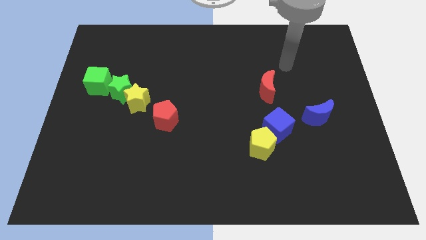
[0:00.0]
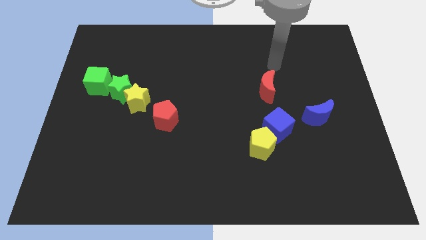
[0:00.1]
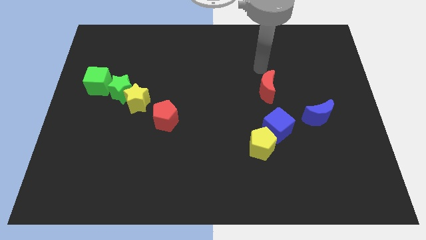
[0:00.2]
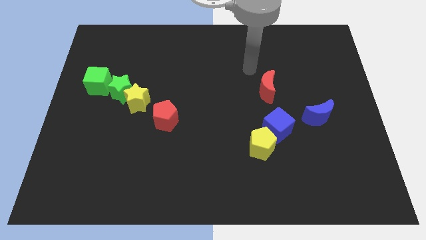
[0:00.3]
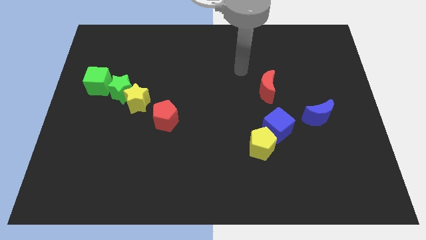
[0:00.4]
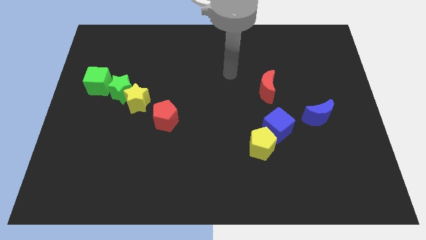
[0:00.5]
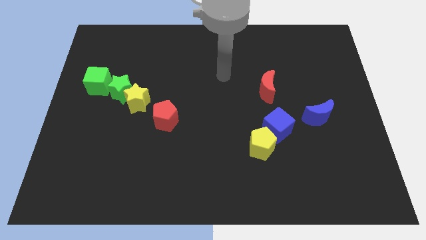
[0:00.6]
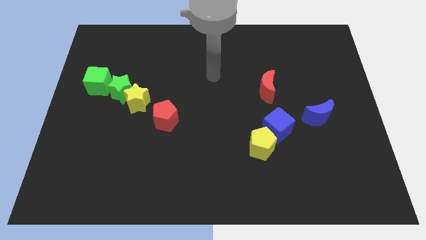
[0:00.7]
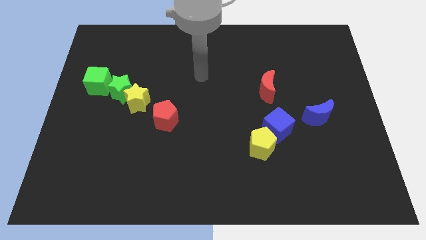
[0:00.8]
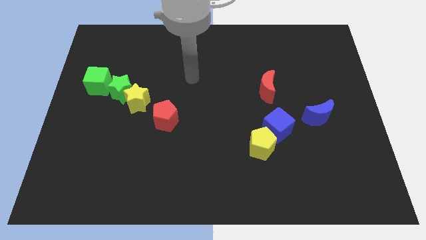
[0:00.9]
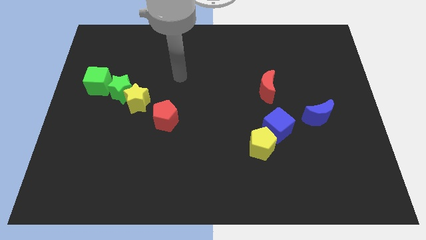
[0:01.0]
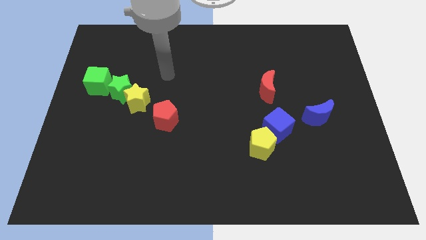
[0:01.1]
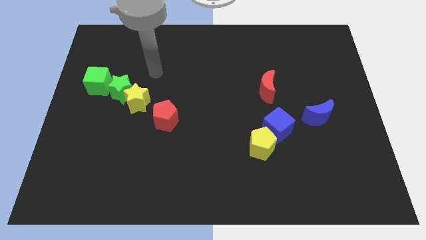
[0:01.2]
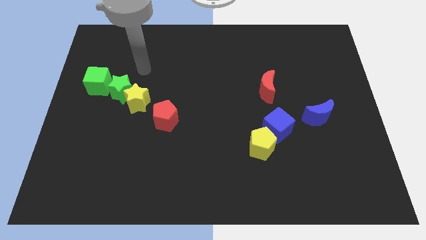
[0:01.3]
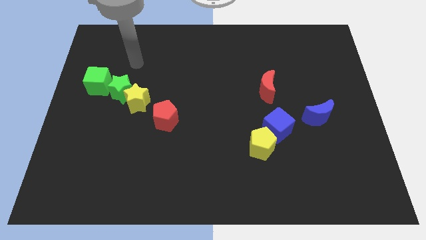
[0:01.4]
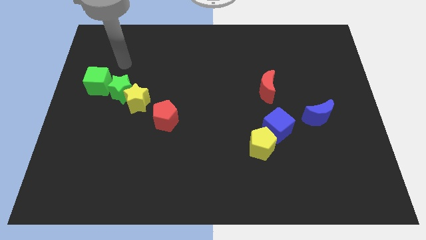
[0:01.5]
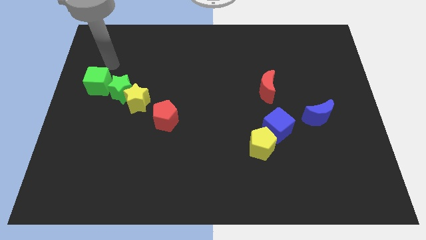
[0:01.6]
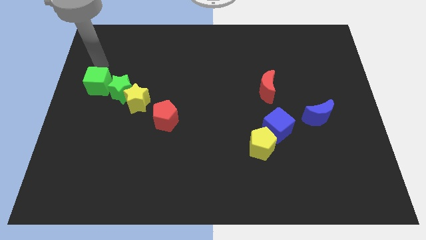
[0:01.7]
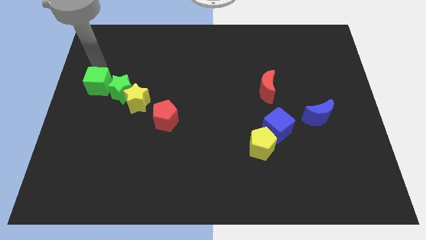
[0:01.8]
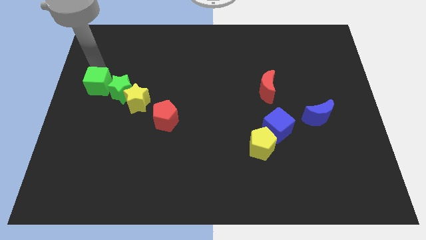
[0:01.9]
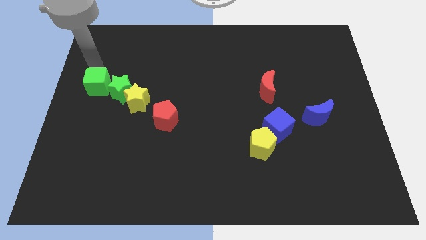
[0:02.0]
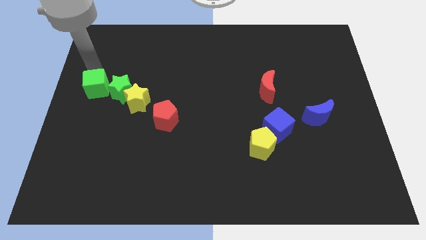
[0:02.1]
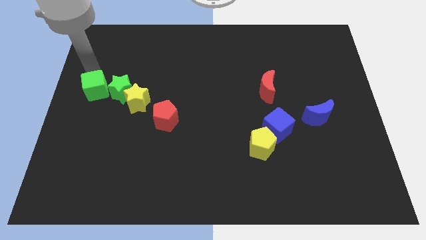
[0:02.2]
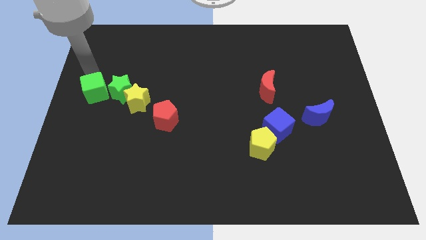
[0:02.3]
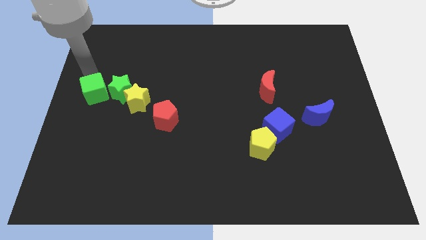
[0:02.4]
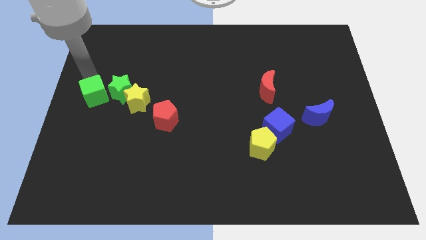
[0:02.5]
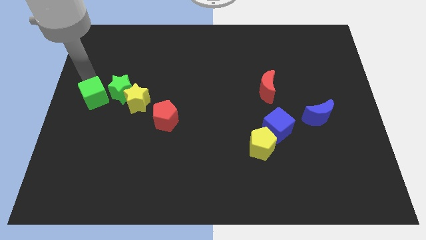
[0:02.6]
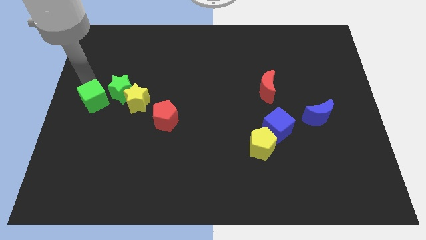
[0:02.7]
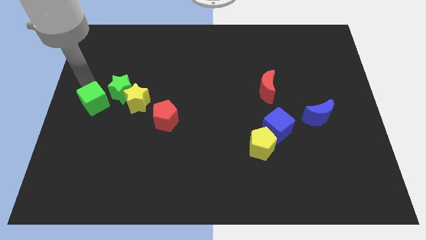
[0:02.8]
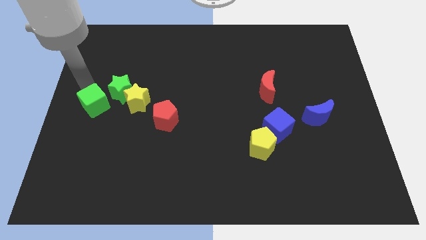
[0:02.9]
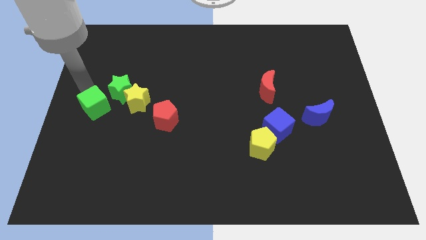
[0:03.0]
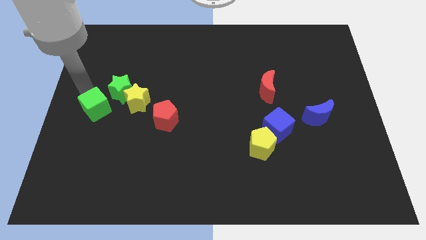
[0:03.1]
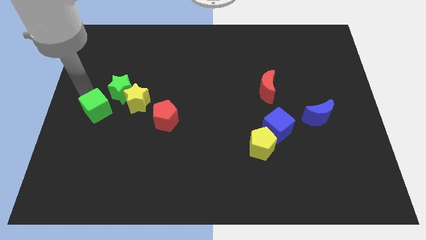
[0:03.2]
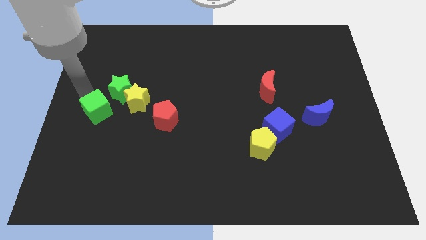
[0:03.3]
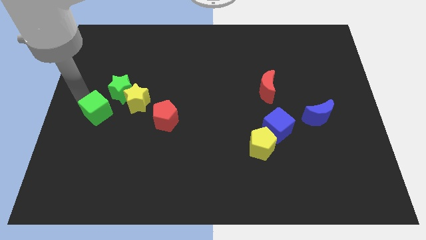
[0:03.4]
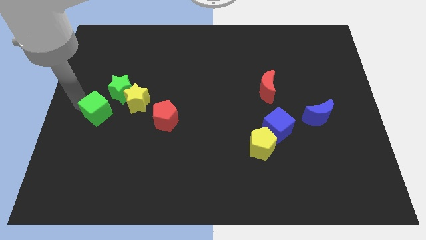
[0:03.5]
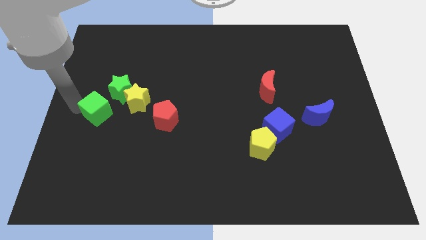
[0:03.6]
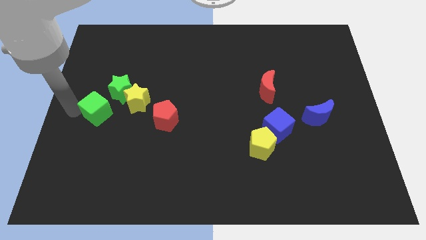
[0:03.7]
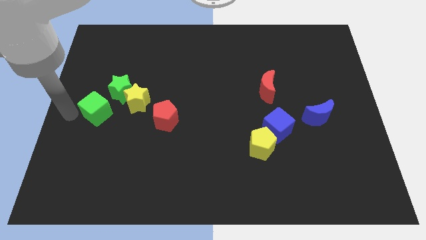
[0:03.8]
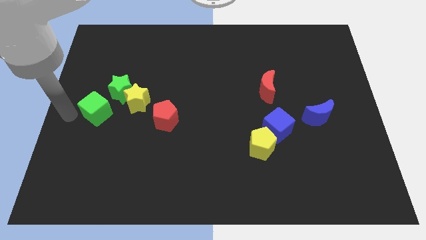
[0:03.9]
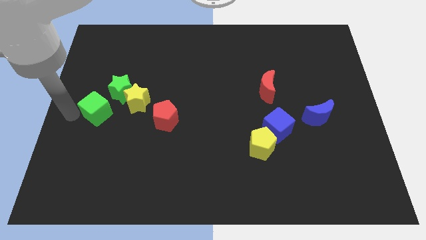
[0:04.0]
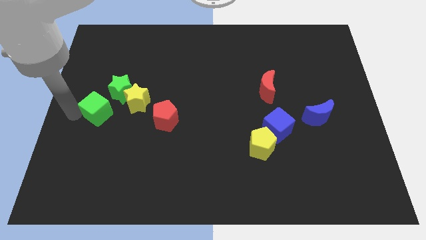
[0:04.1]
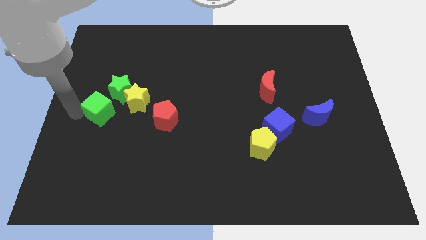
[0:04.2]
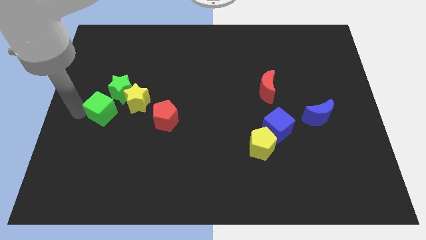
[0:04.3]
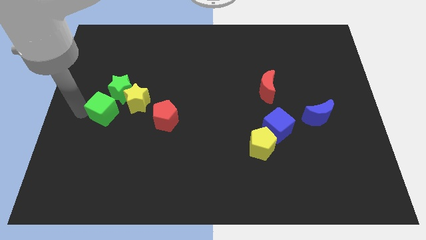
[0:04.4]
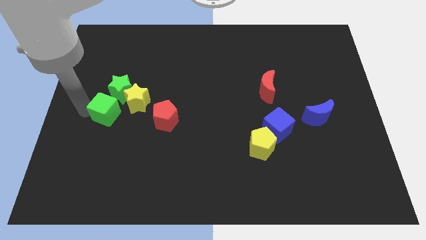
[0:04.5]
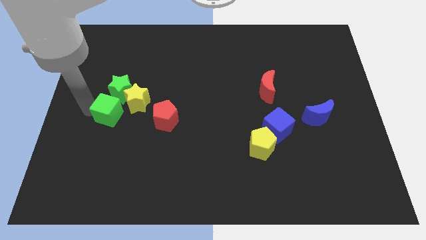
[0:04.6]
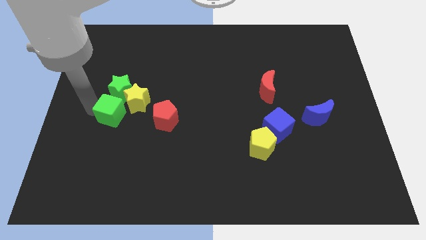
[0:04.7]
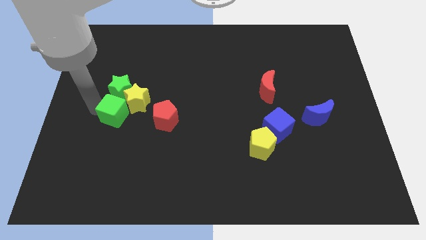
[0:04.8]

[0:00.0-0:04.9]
move the green cube close to the yellow star

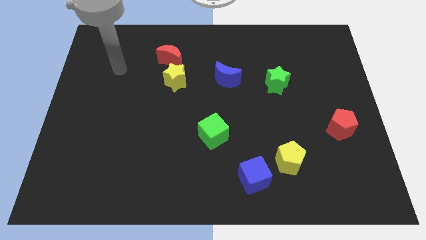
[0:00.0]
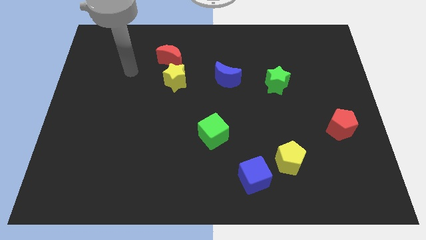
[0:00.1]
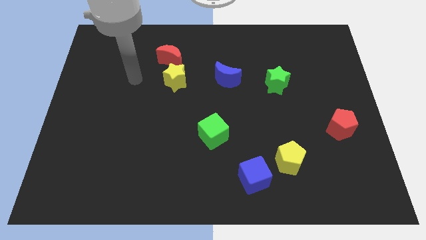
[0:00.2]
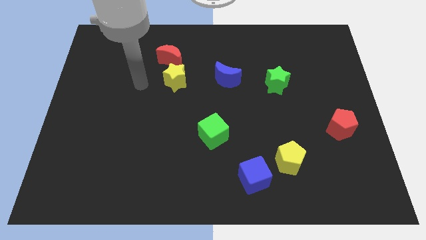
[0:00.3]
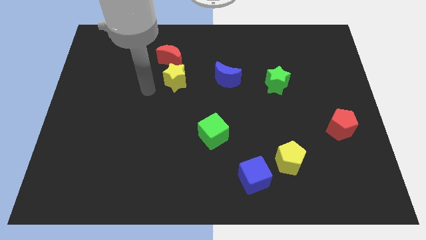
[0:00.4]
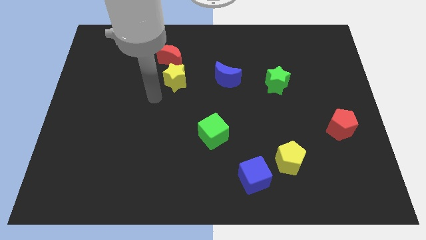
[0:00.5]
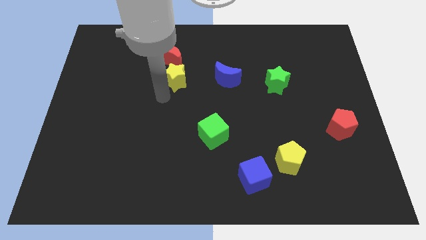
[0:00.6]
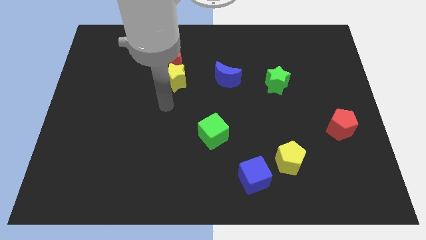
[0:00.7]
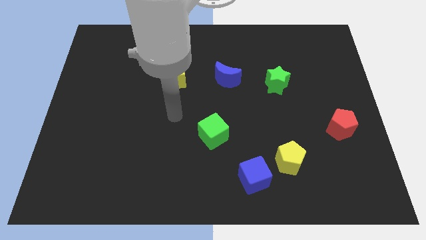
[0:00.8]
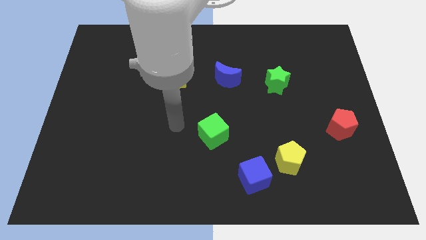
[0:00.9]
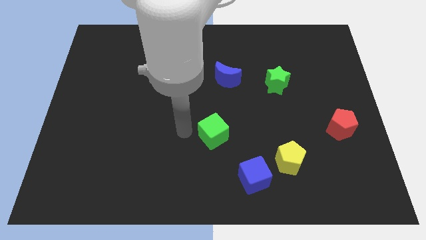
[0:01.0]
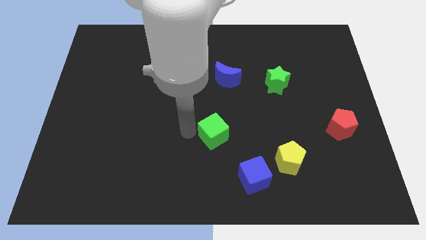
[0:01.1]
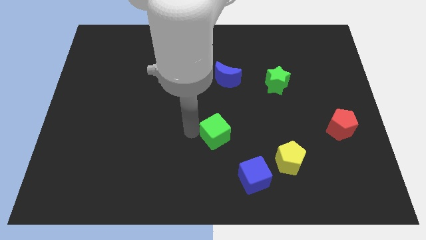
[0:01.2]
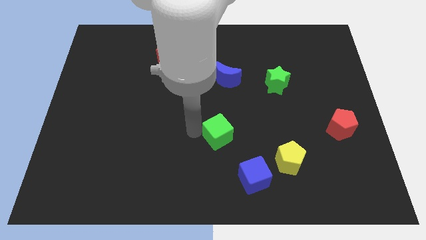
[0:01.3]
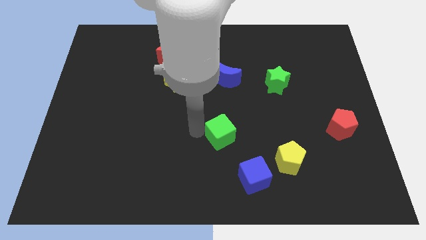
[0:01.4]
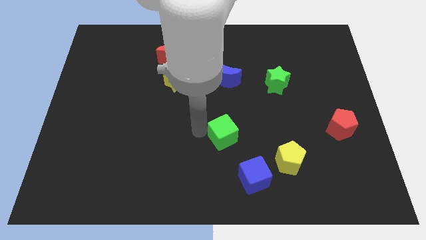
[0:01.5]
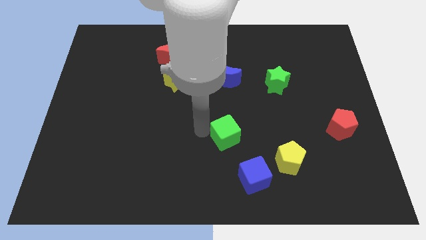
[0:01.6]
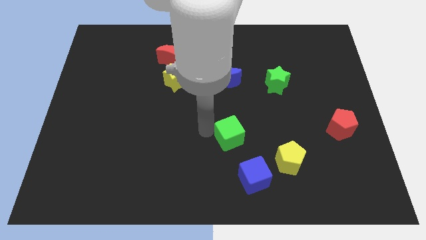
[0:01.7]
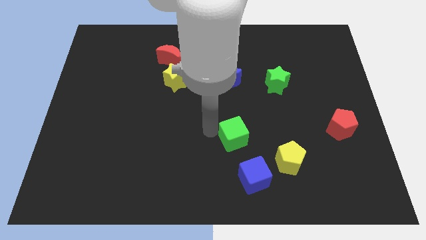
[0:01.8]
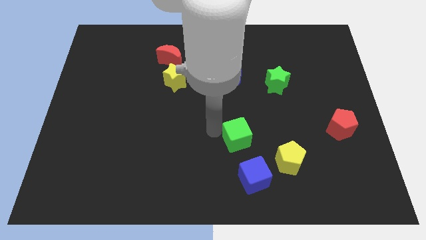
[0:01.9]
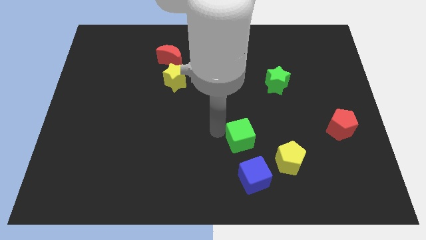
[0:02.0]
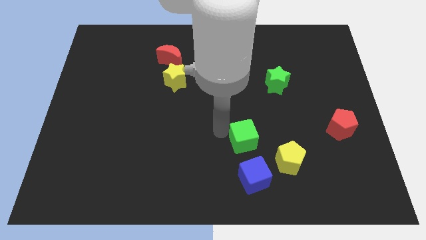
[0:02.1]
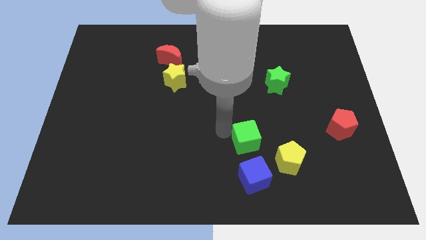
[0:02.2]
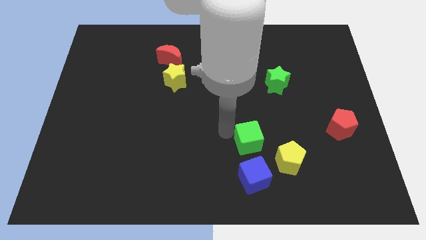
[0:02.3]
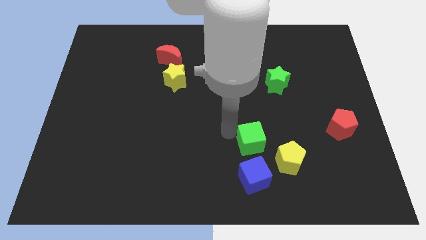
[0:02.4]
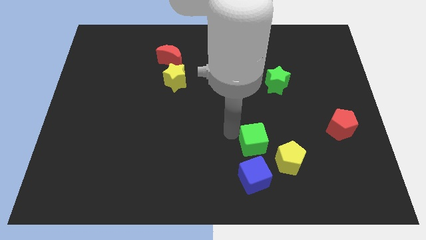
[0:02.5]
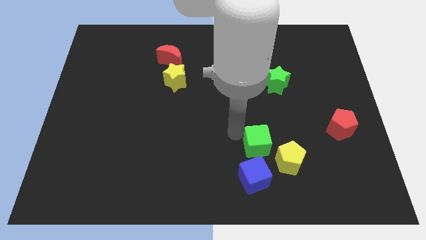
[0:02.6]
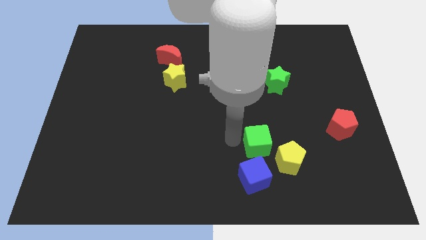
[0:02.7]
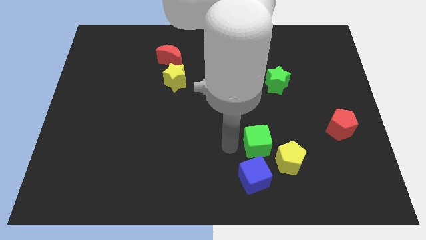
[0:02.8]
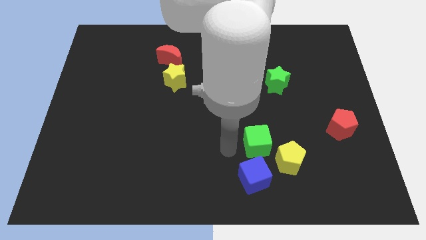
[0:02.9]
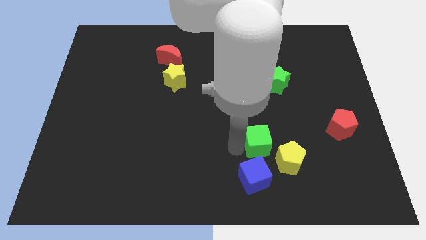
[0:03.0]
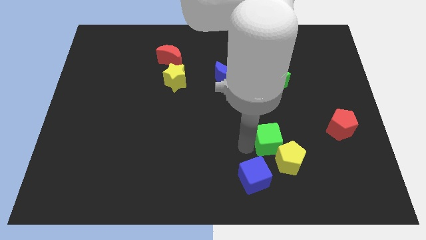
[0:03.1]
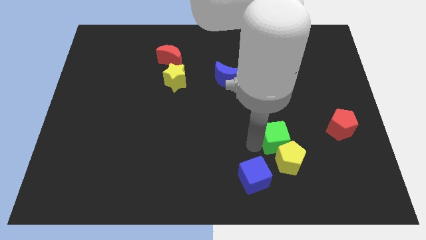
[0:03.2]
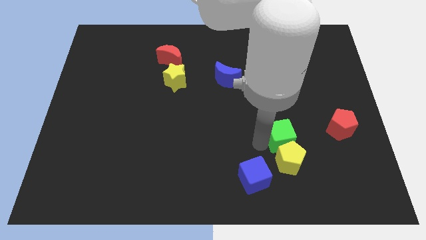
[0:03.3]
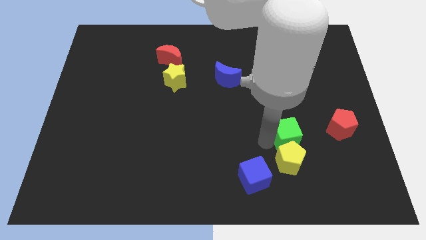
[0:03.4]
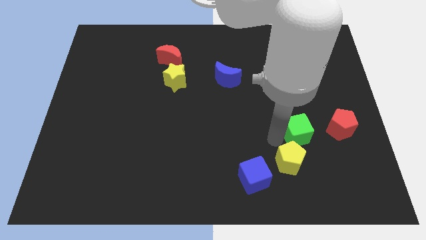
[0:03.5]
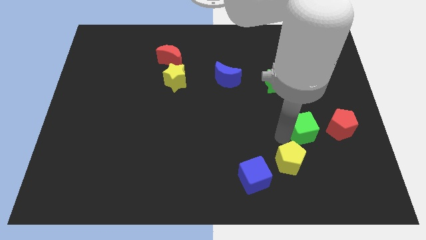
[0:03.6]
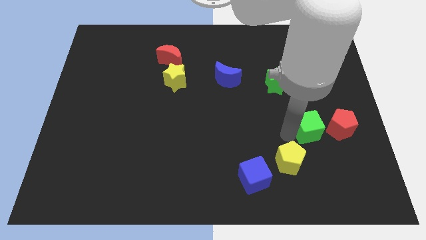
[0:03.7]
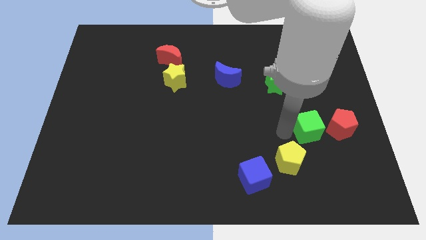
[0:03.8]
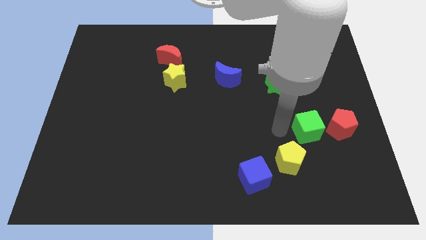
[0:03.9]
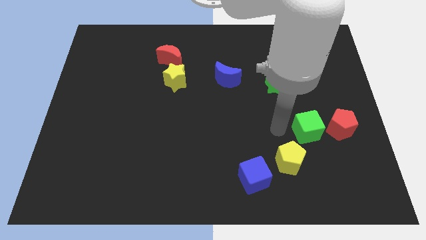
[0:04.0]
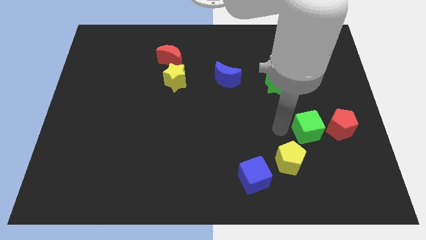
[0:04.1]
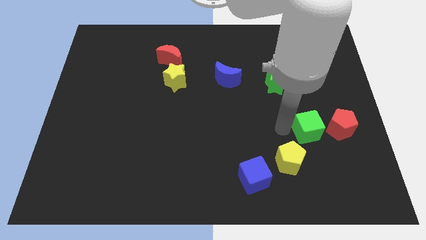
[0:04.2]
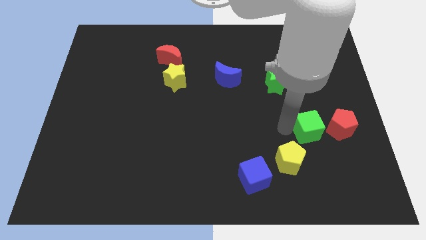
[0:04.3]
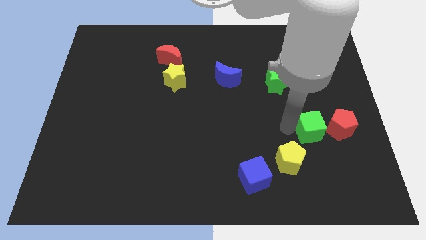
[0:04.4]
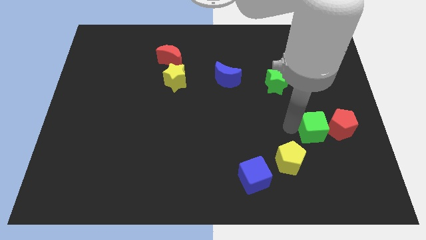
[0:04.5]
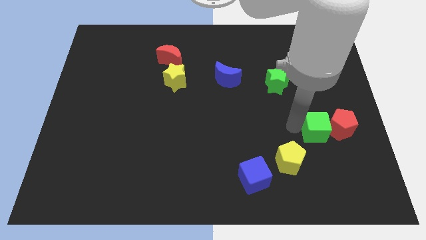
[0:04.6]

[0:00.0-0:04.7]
put the green cube towards the red pentagon
